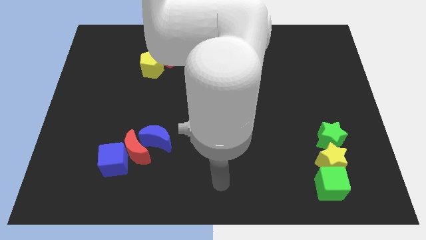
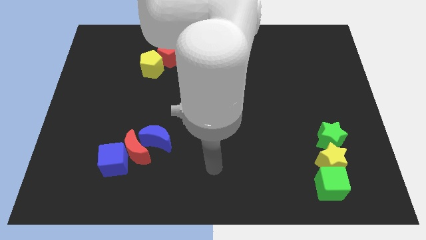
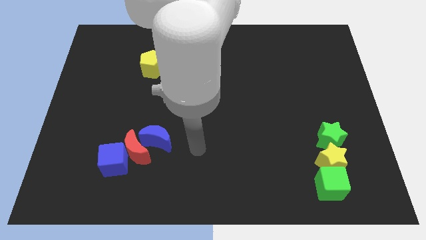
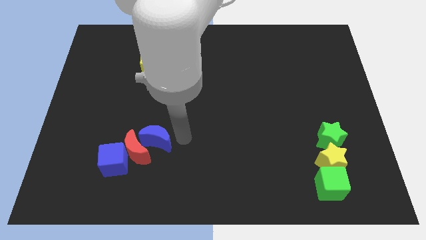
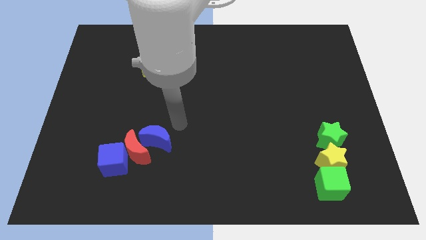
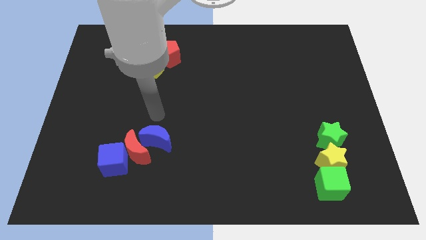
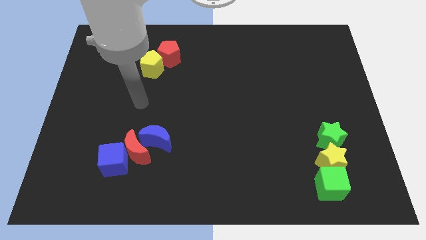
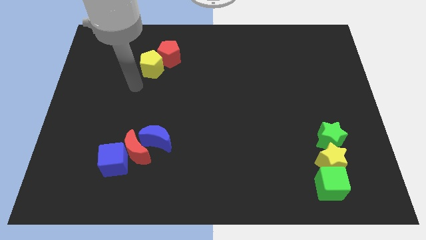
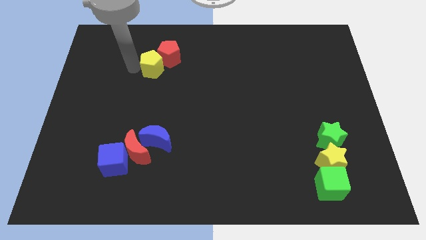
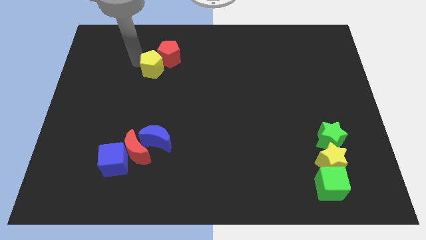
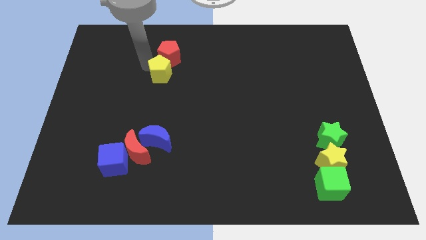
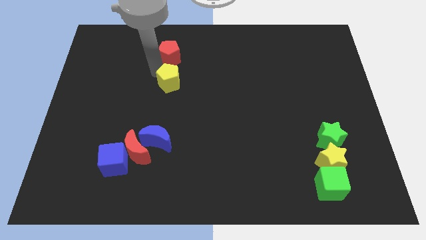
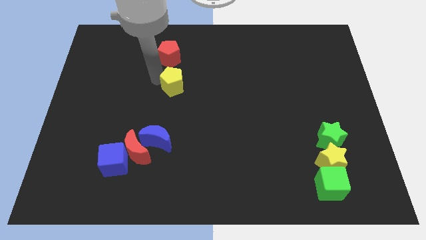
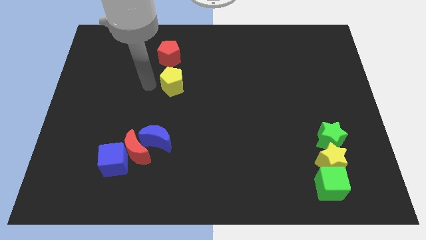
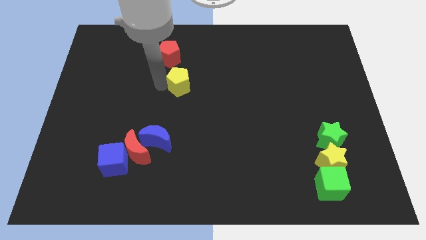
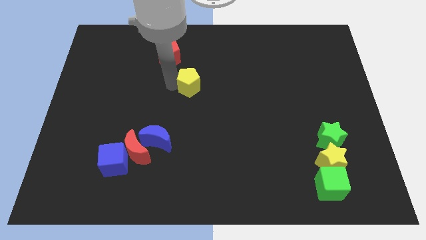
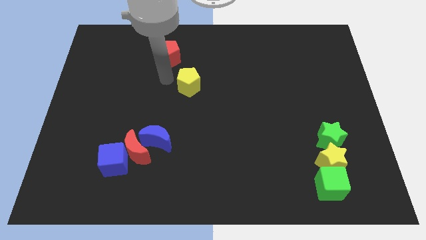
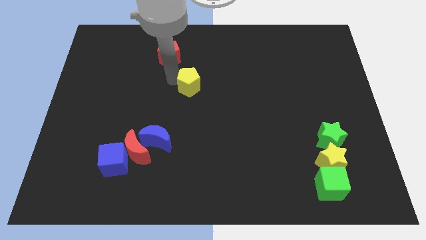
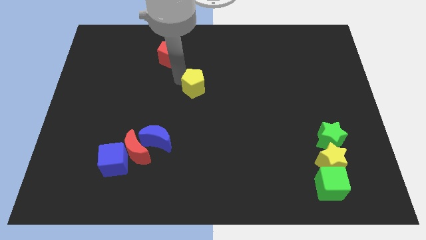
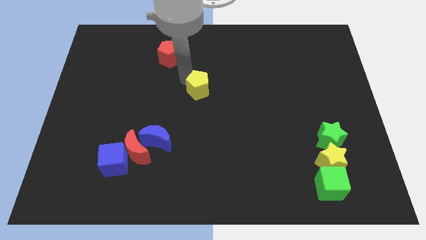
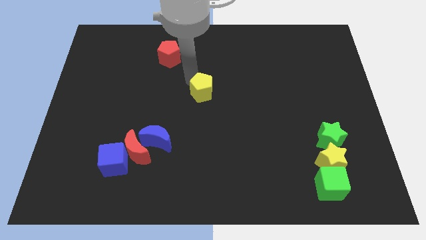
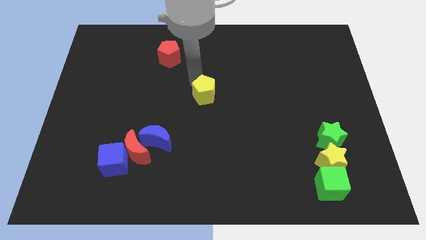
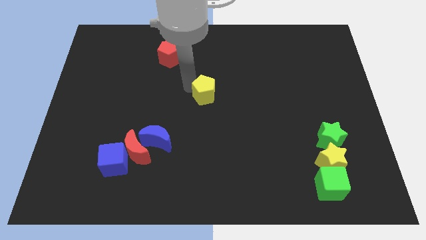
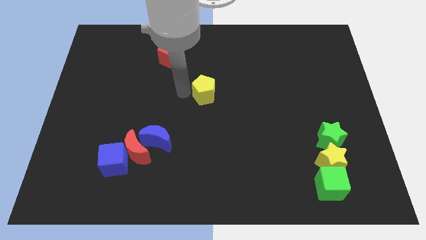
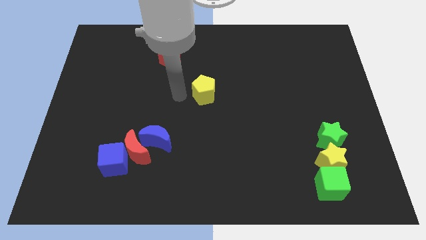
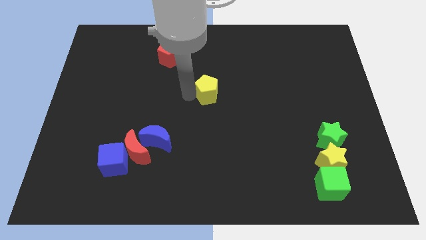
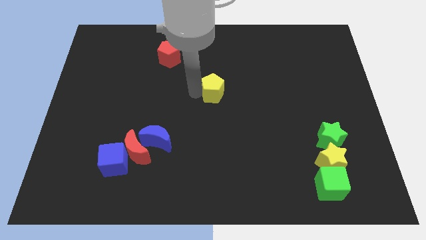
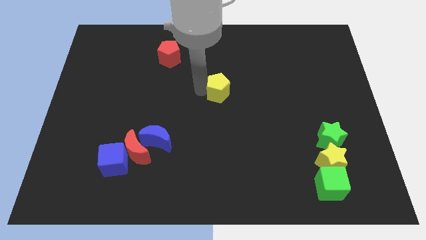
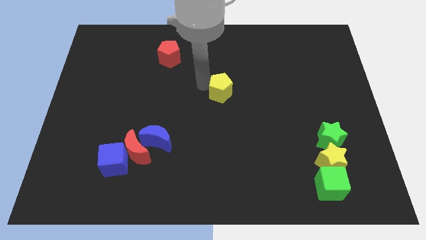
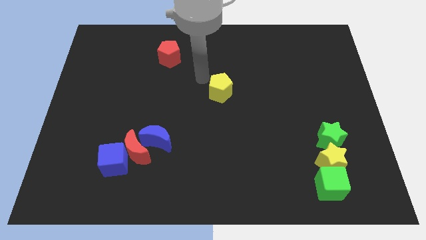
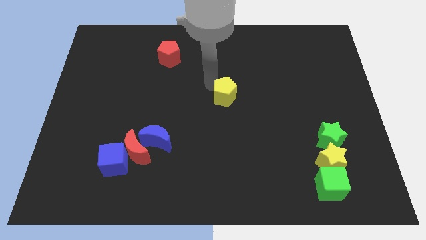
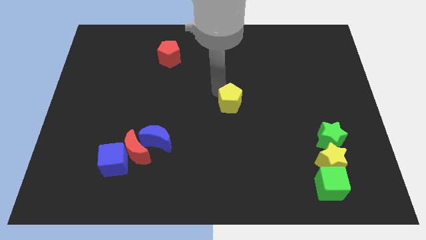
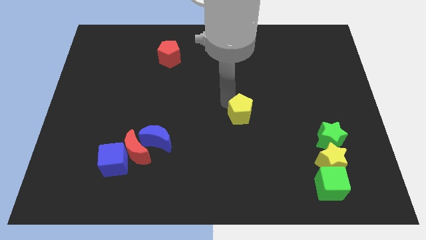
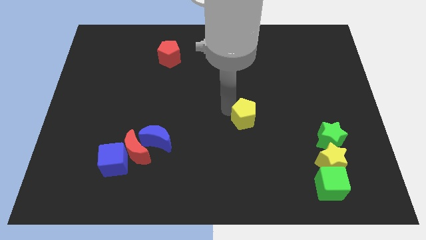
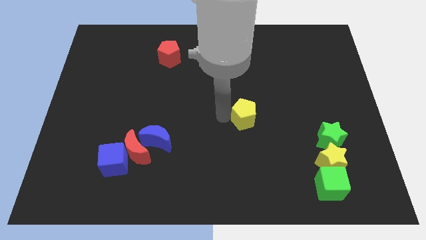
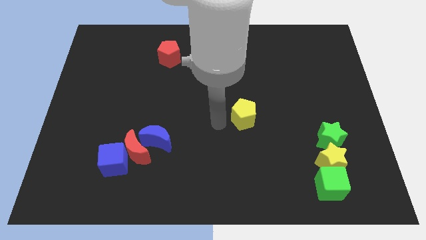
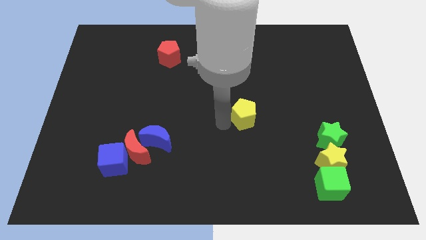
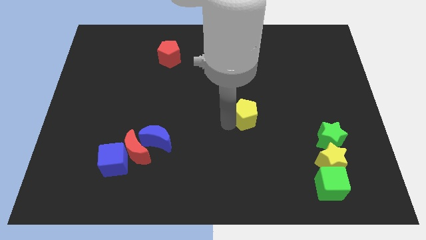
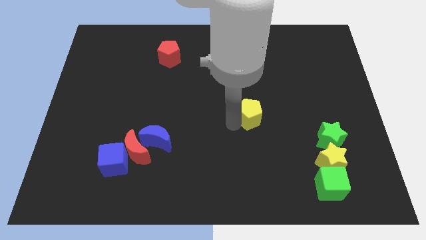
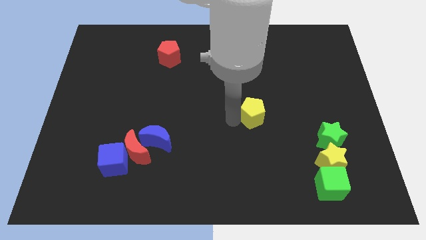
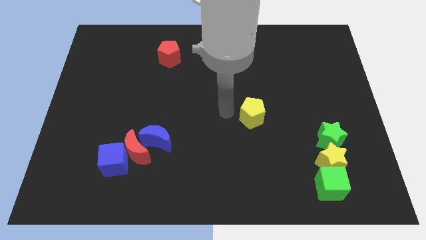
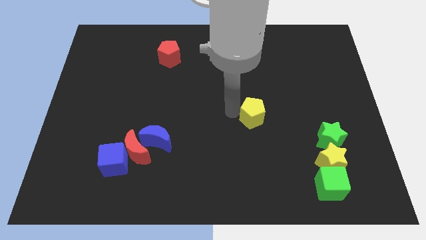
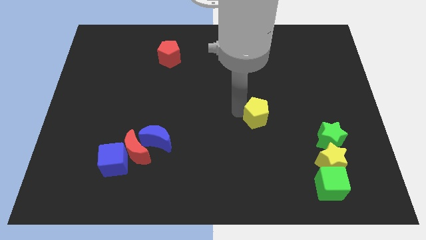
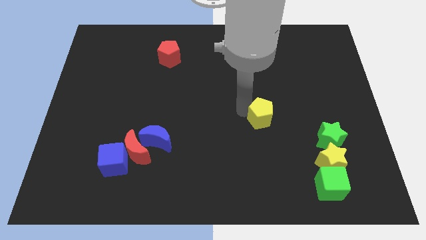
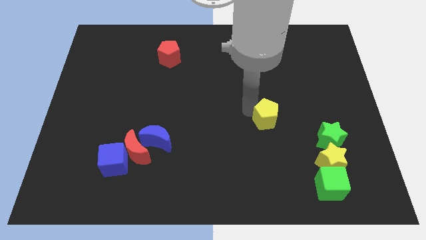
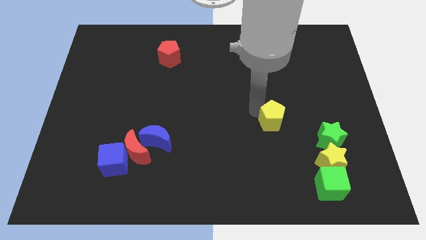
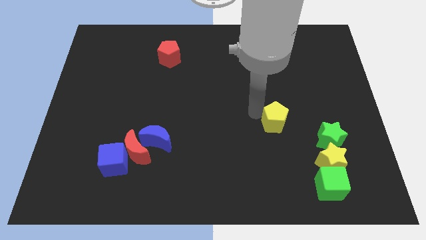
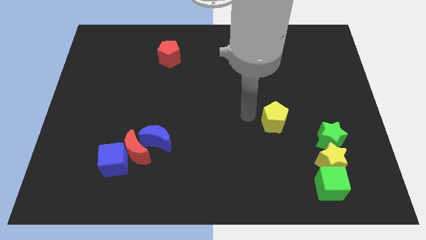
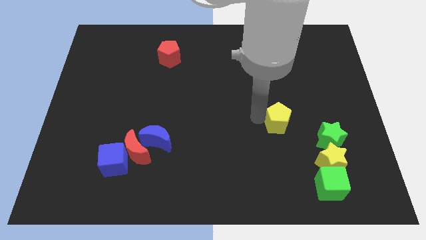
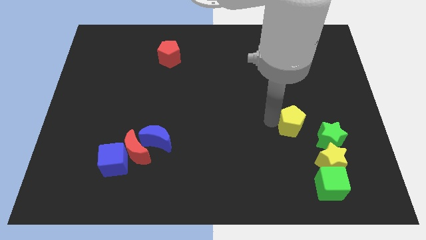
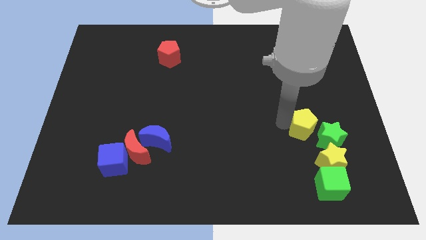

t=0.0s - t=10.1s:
slide the yellow pentagon close to the green star

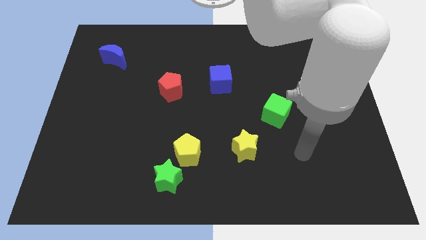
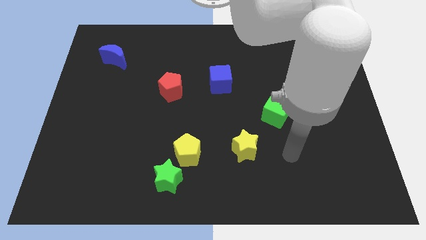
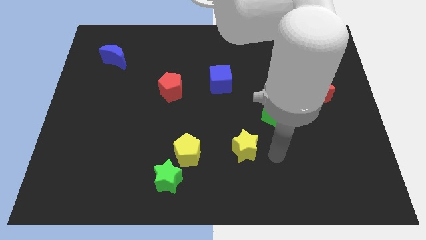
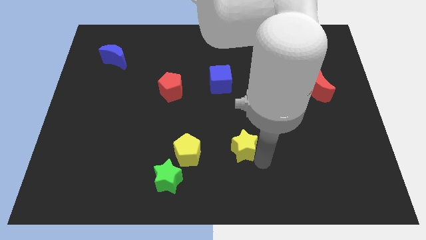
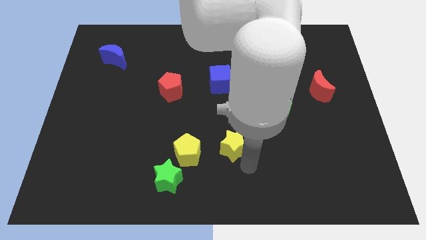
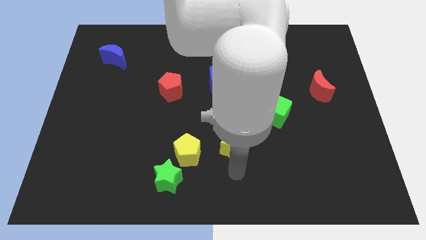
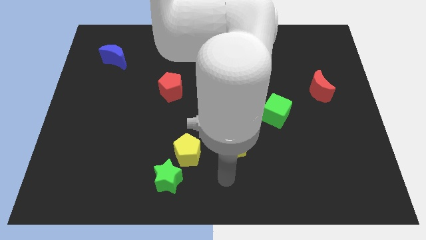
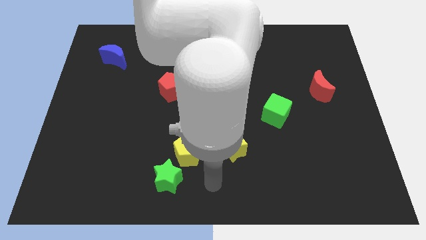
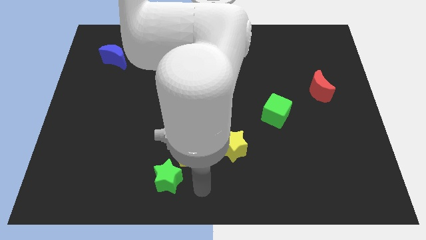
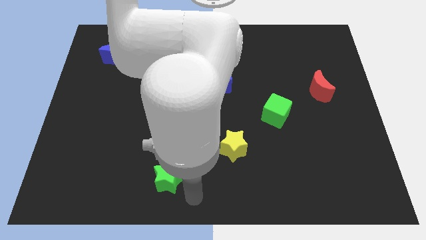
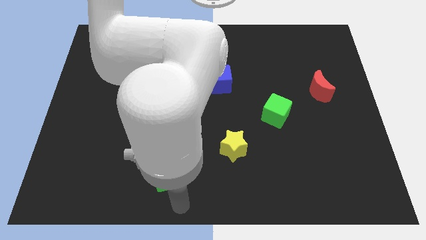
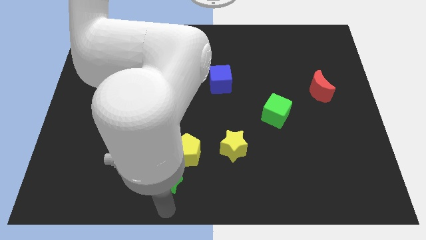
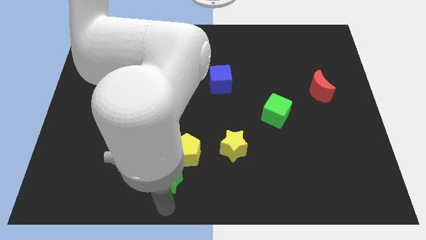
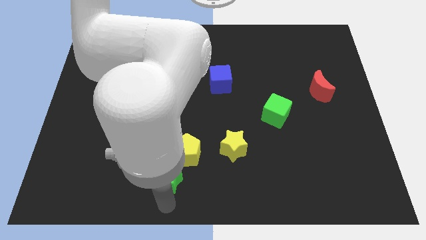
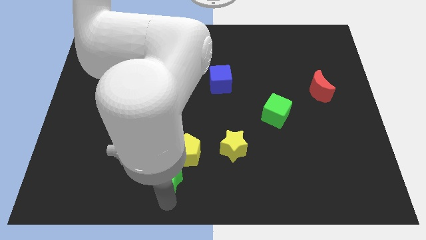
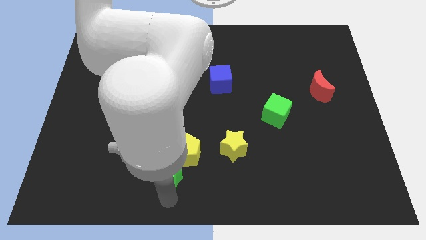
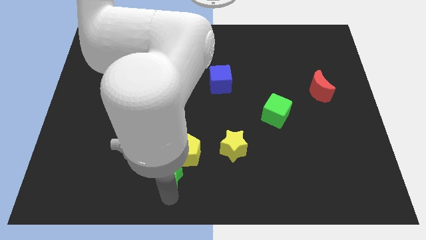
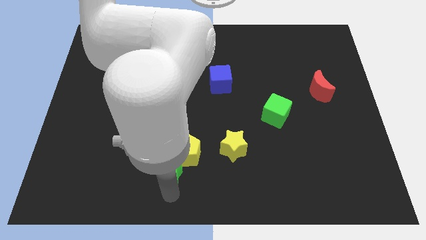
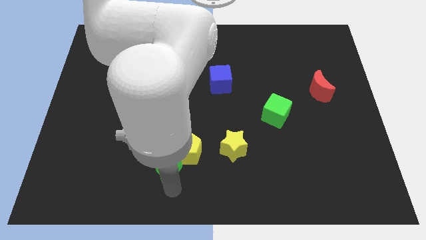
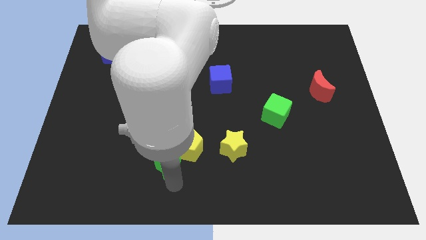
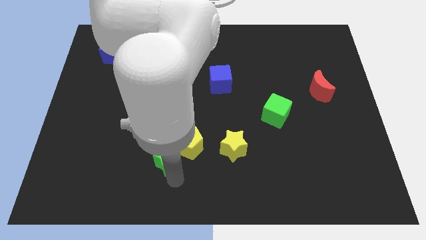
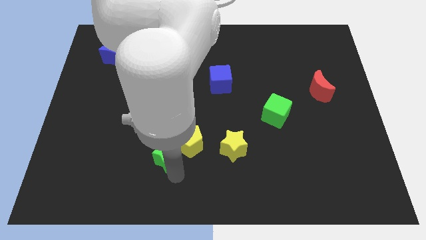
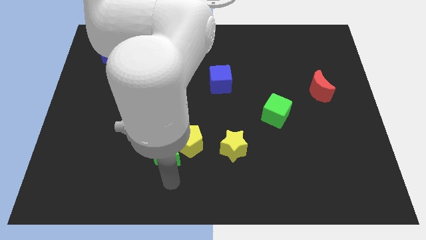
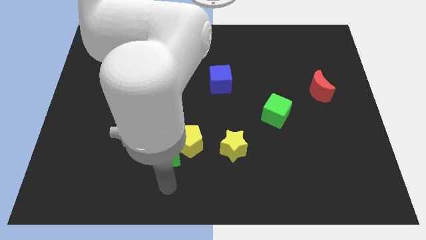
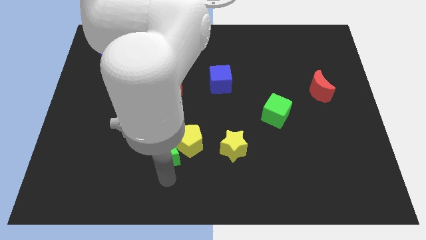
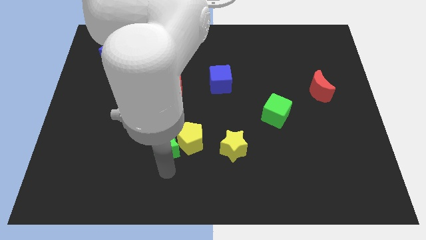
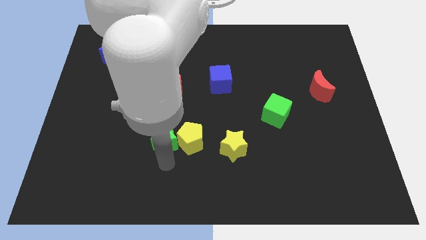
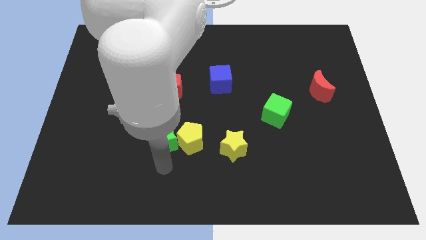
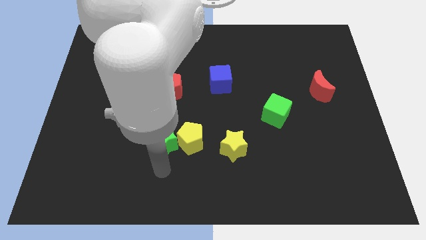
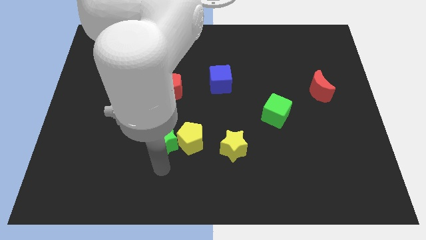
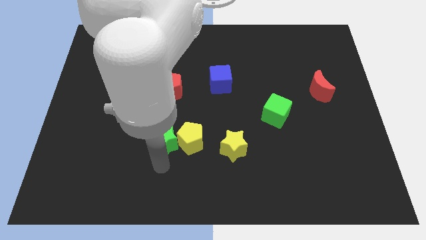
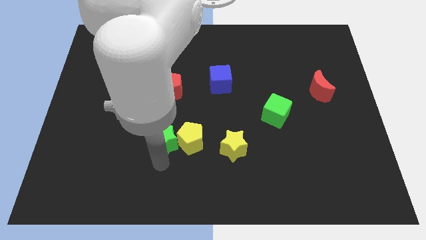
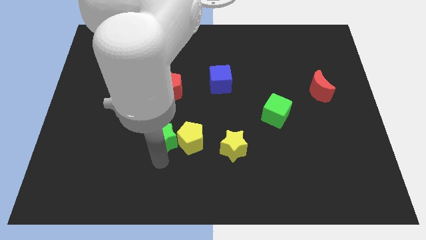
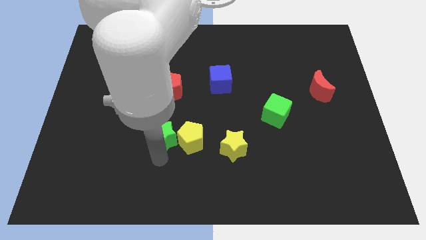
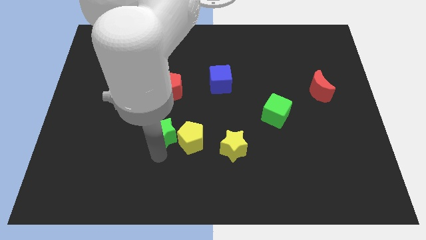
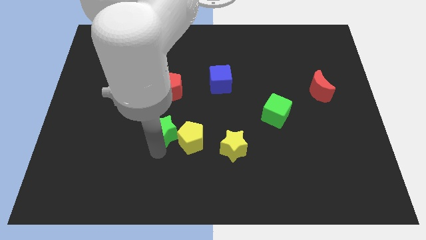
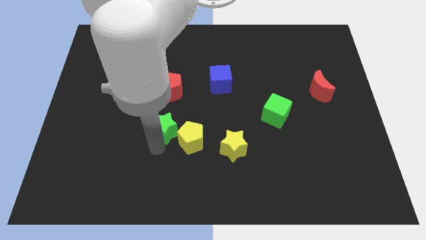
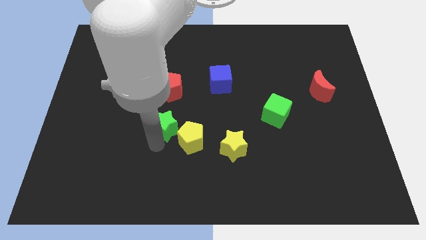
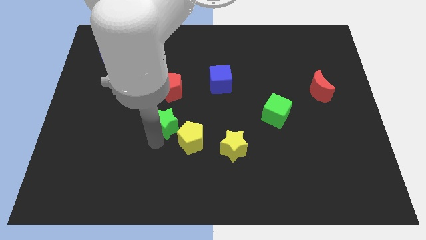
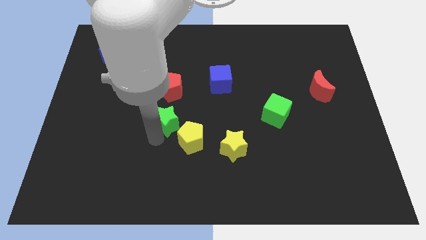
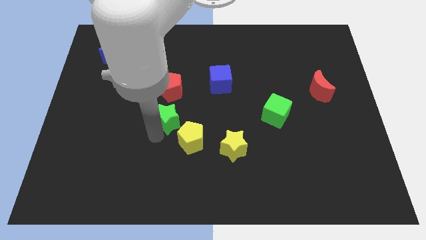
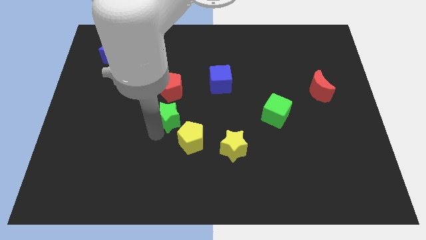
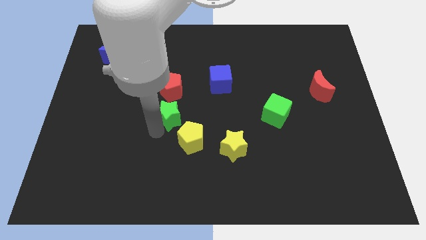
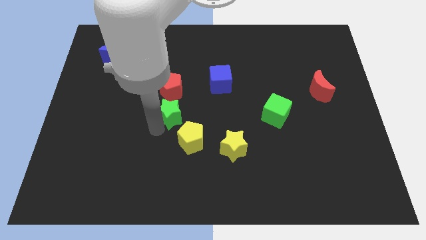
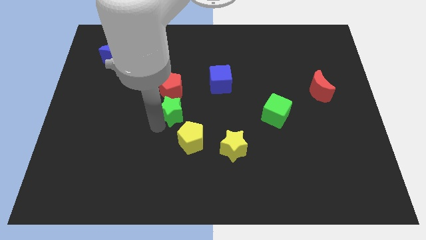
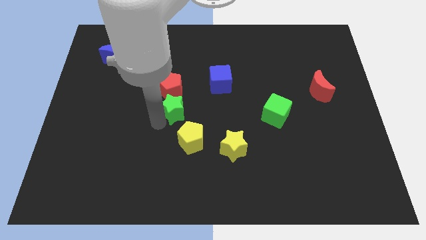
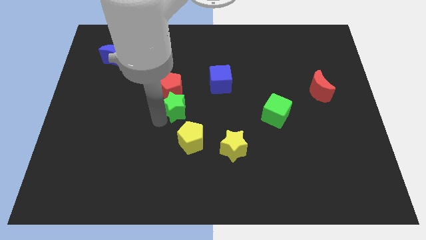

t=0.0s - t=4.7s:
slide the green star towards the red pentagon
